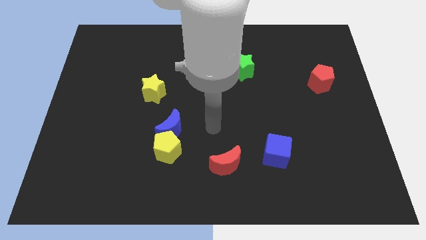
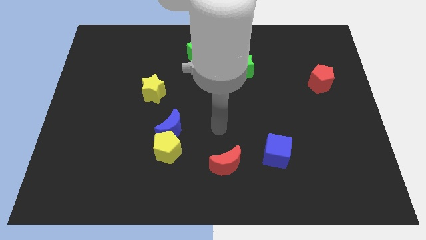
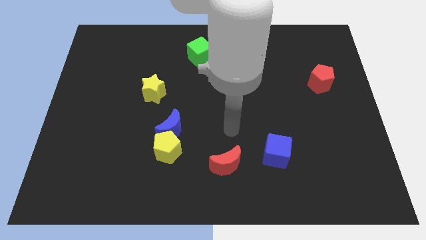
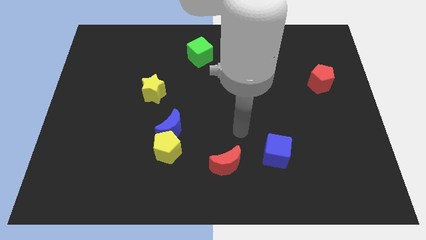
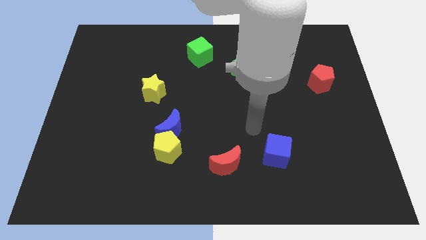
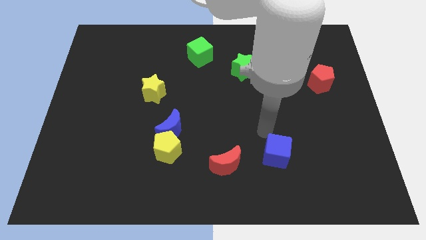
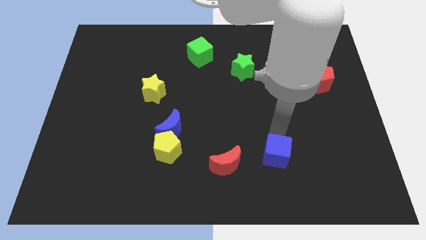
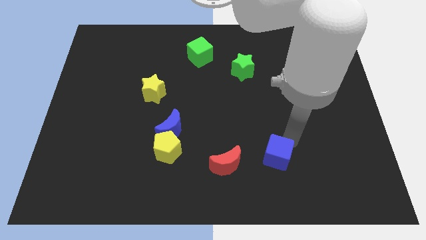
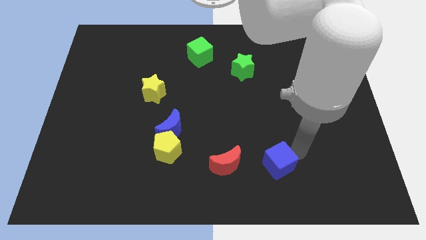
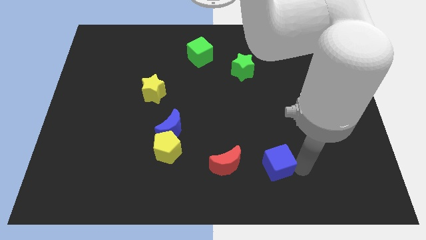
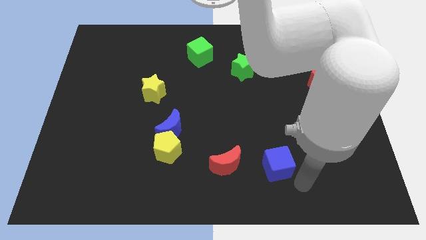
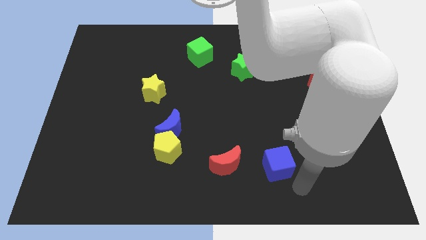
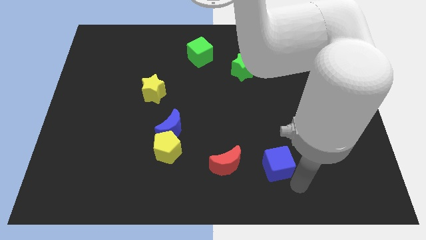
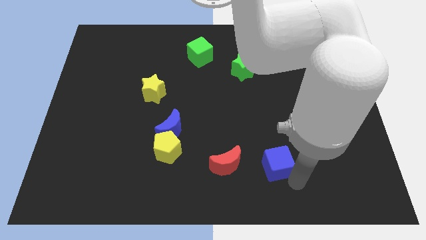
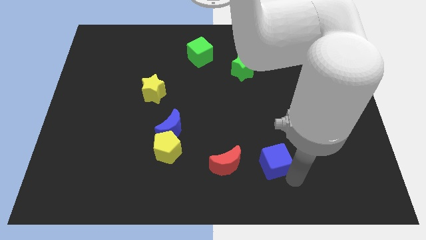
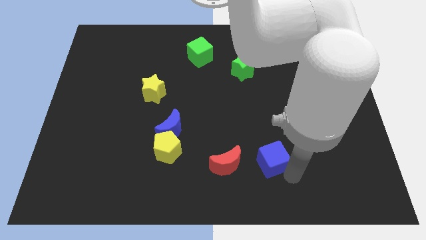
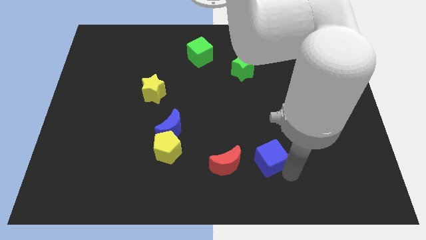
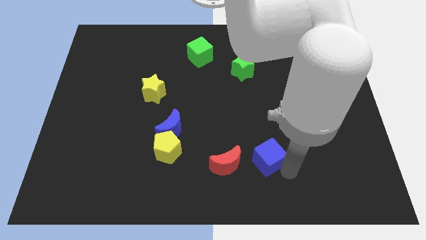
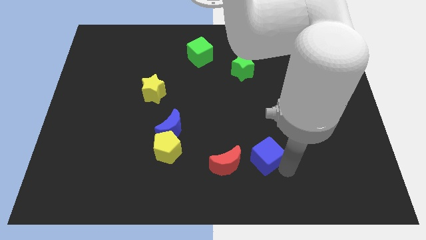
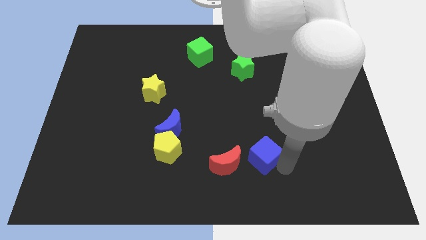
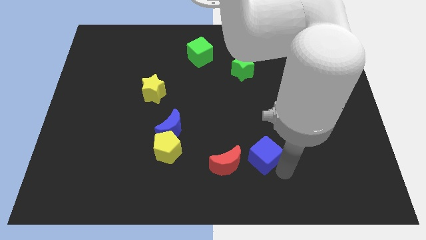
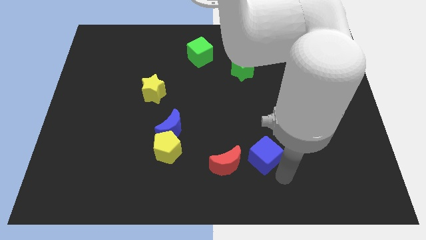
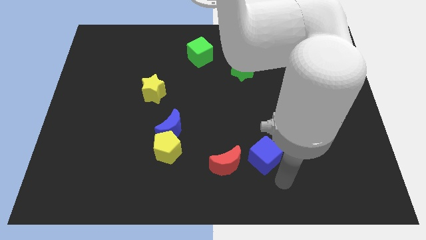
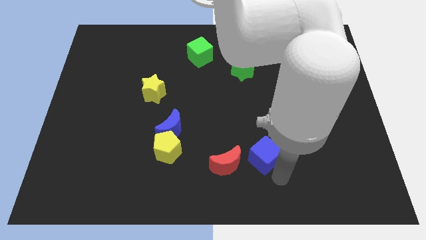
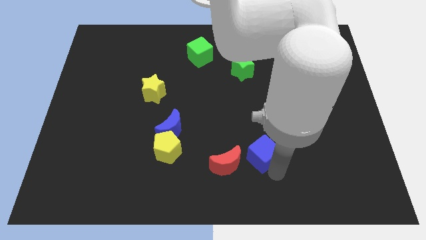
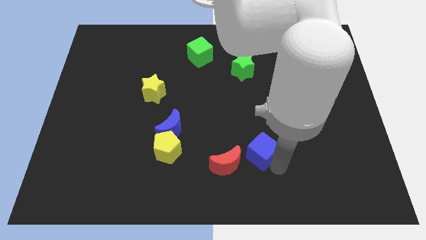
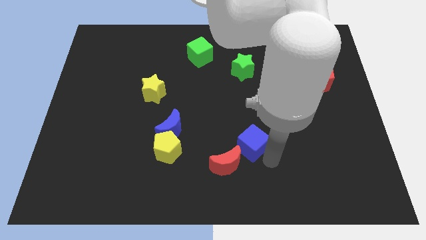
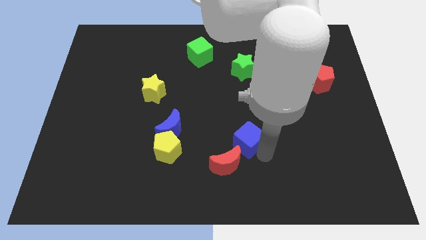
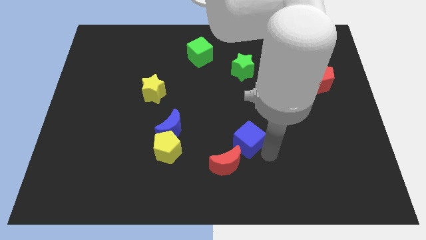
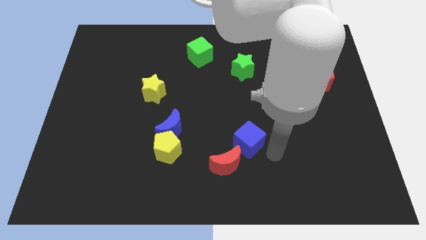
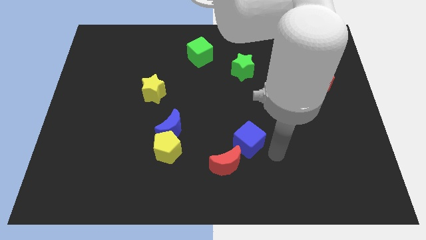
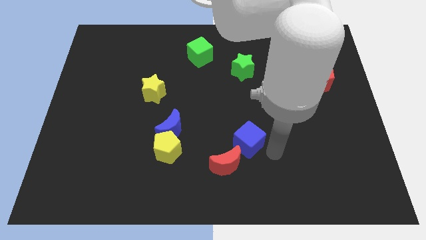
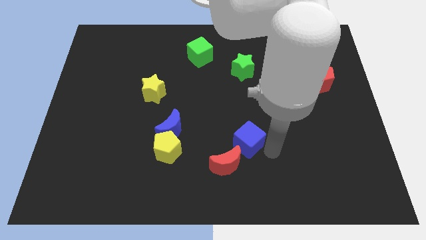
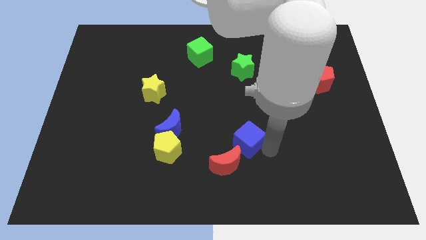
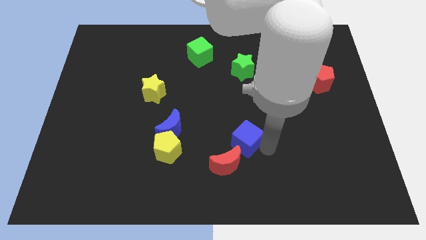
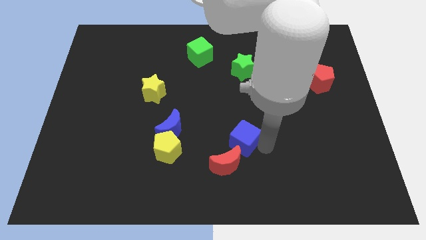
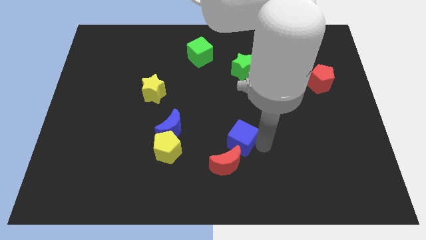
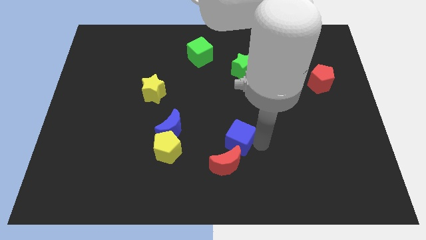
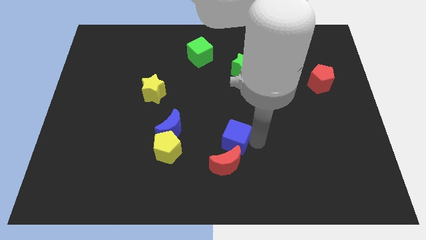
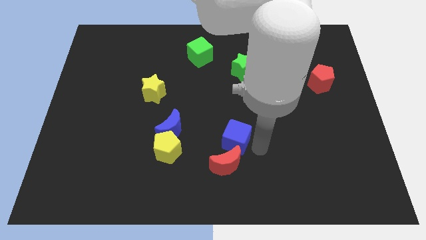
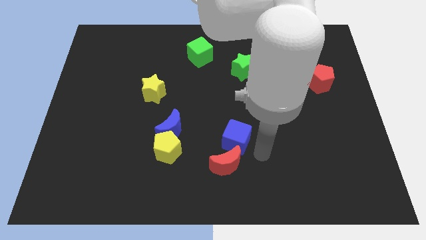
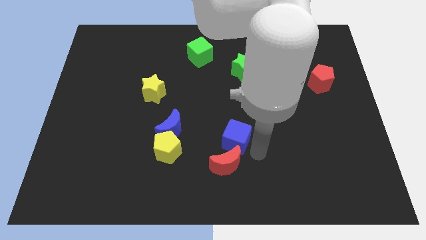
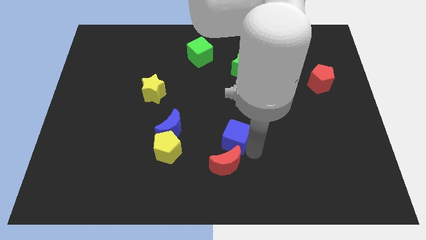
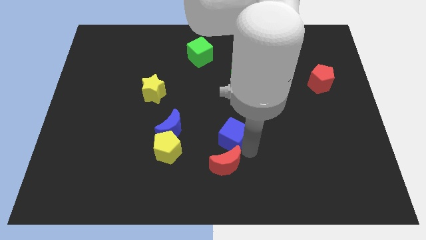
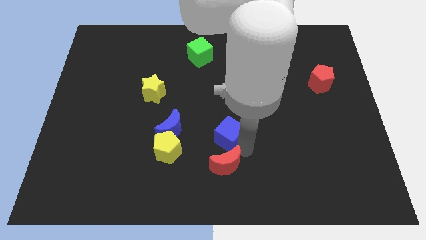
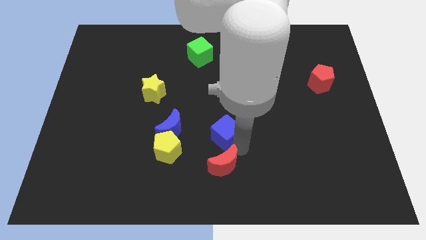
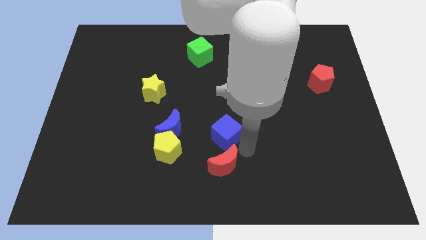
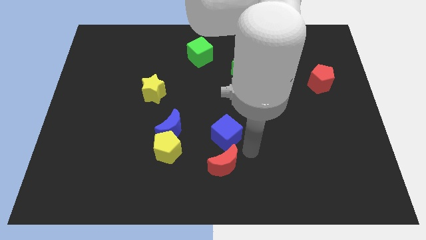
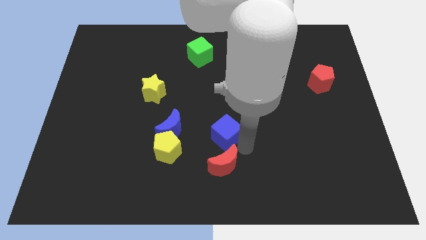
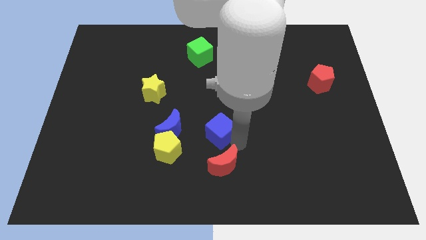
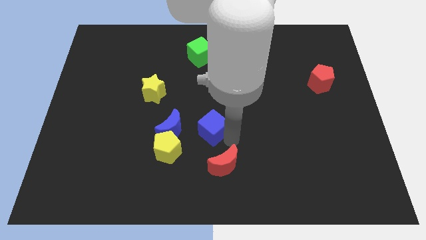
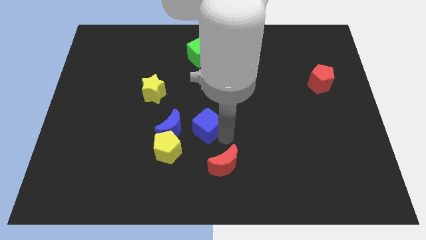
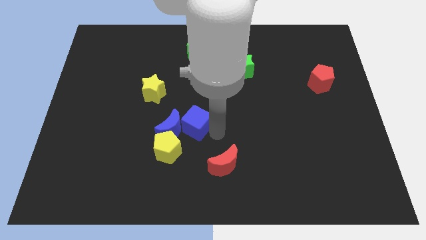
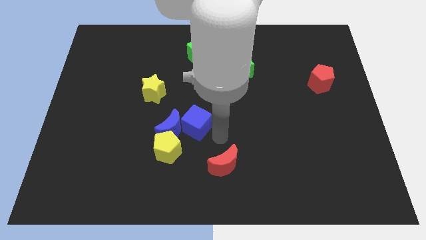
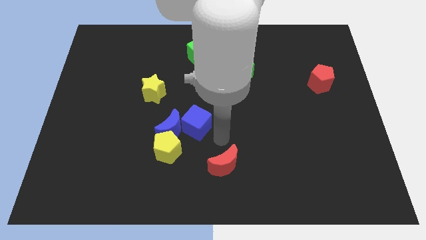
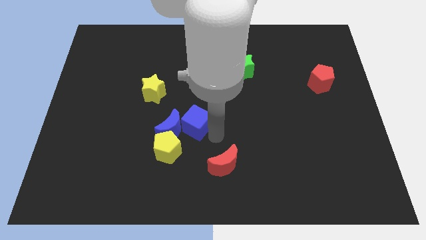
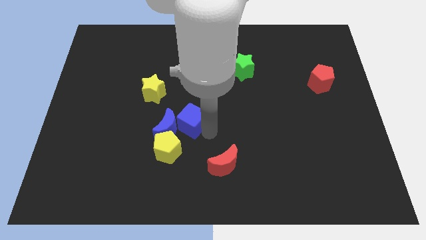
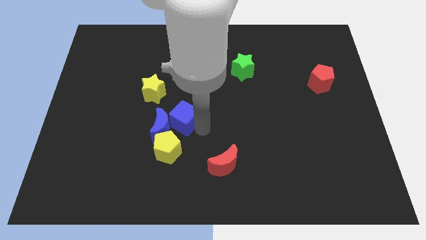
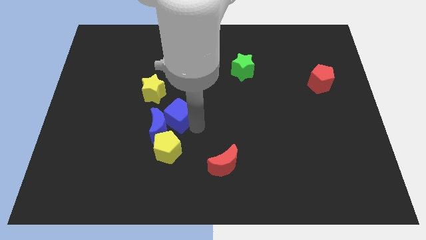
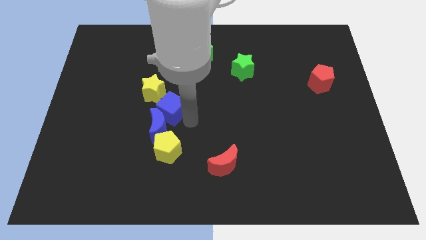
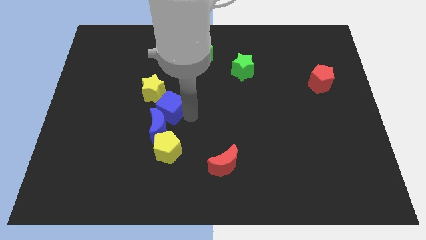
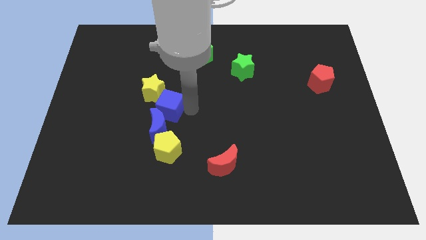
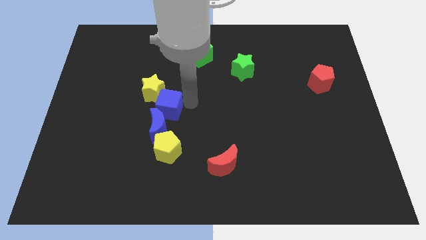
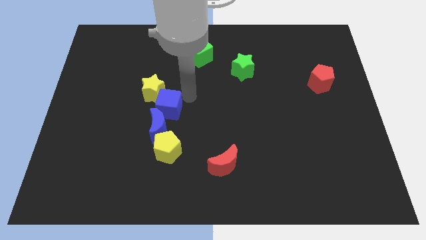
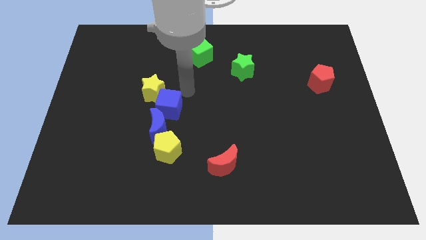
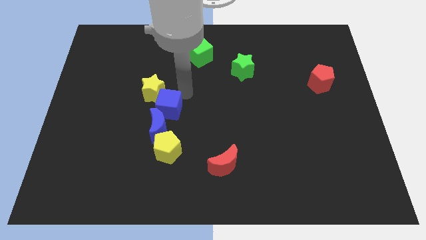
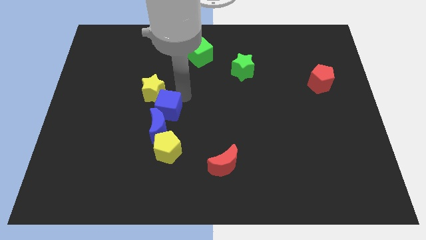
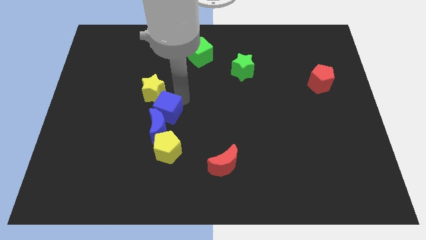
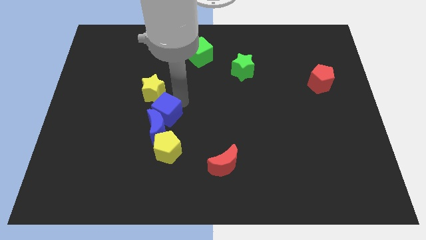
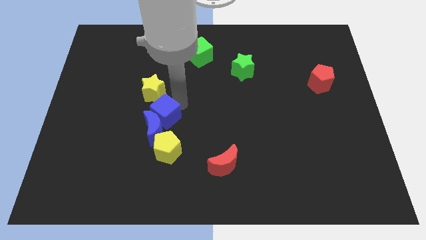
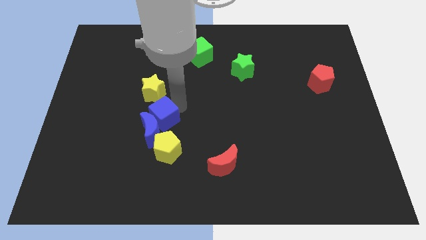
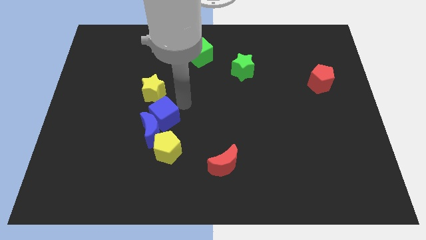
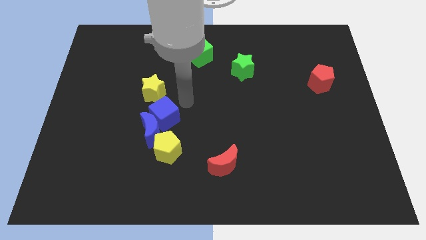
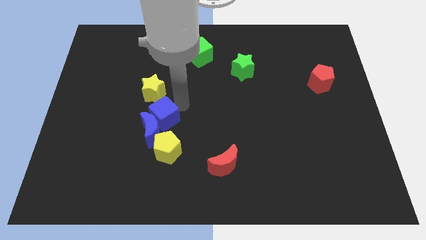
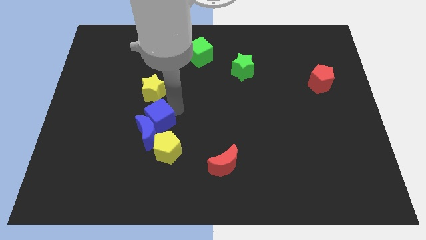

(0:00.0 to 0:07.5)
slide the blue cube to the top left side of the yellow pentagon
